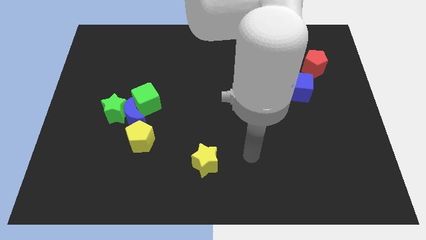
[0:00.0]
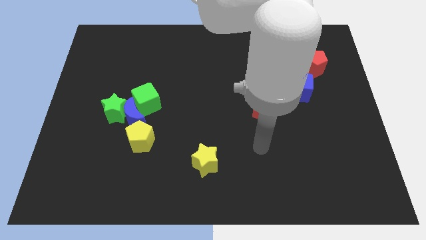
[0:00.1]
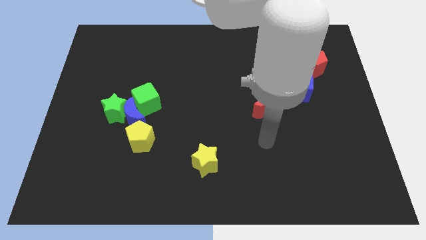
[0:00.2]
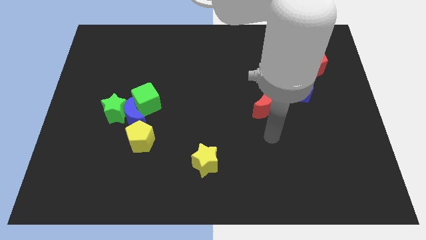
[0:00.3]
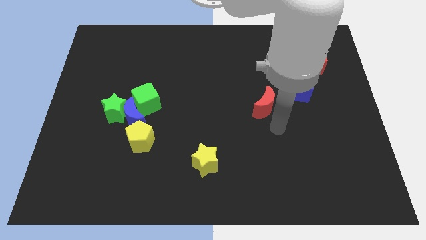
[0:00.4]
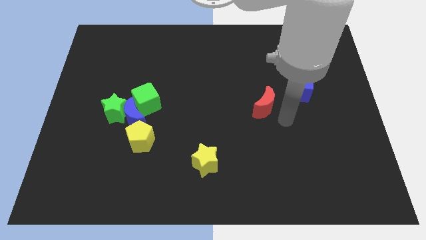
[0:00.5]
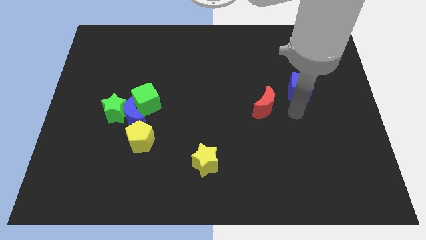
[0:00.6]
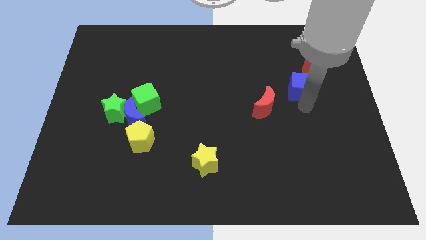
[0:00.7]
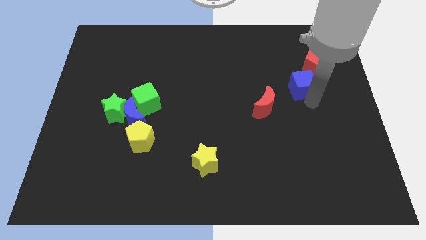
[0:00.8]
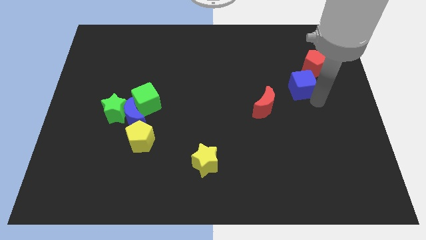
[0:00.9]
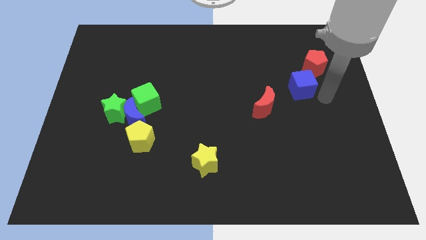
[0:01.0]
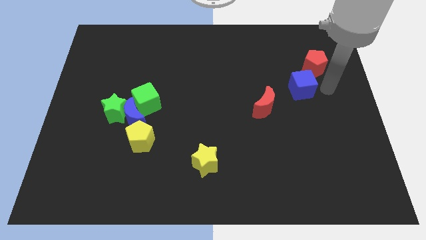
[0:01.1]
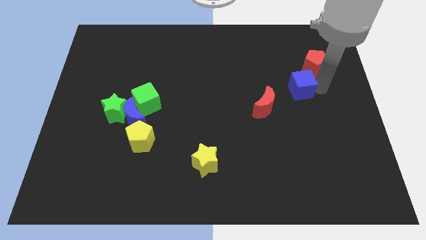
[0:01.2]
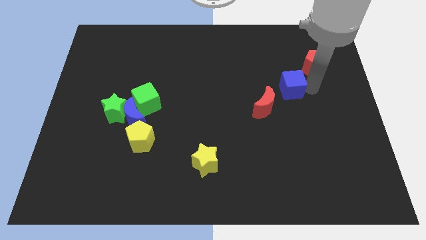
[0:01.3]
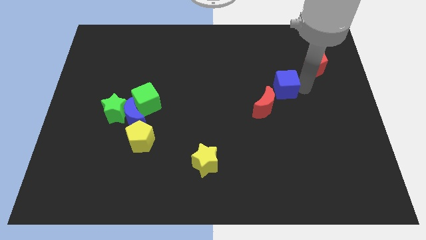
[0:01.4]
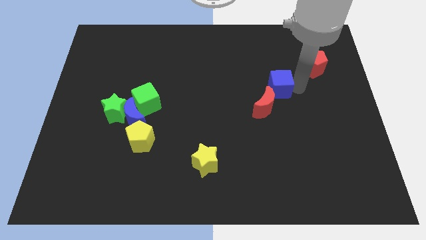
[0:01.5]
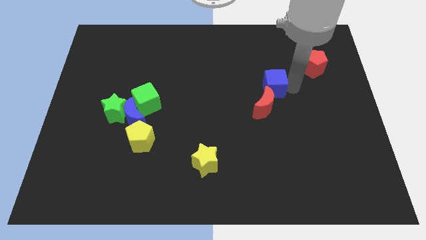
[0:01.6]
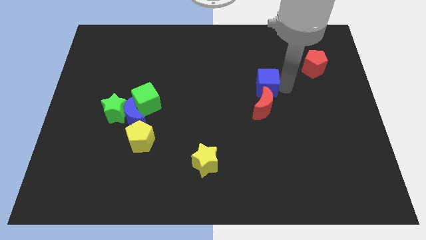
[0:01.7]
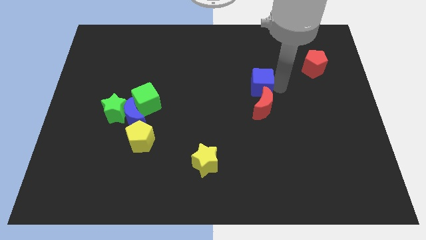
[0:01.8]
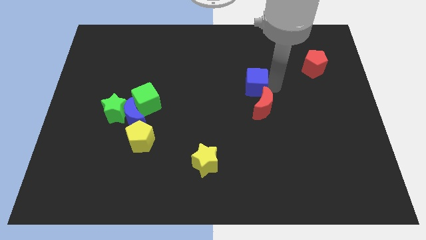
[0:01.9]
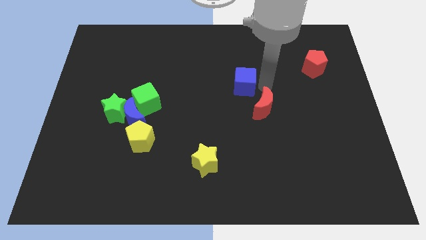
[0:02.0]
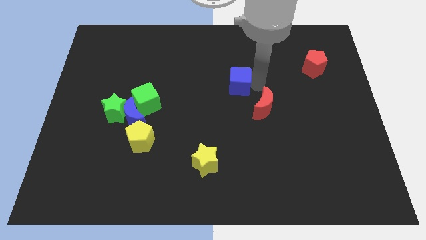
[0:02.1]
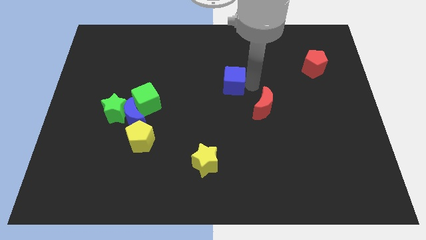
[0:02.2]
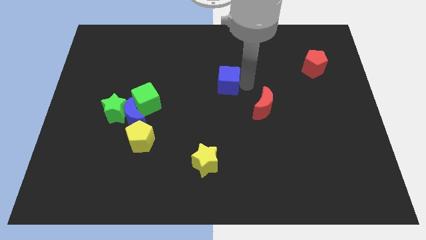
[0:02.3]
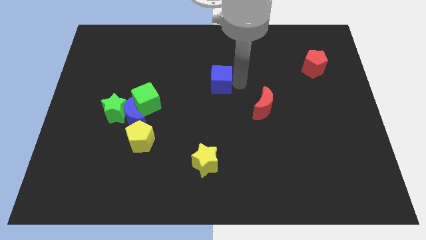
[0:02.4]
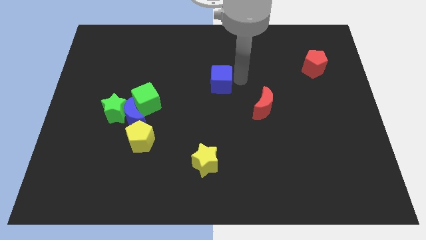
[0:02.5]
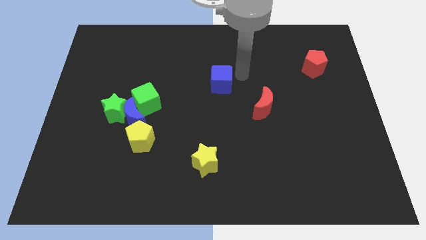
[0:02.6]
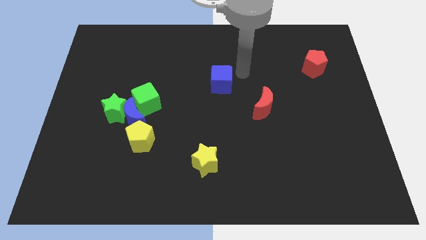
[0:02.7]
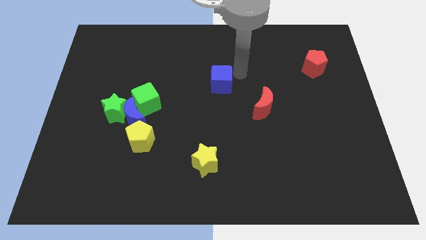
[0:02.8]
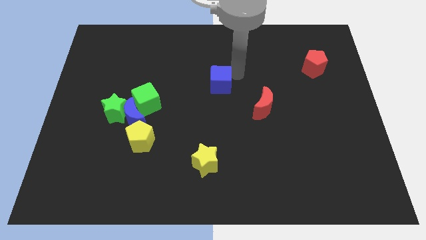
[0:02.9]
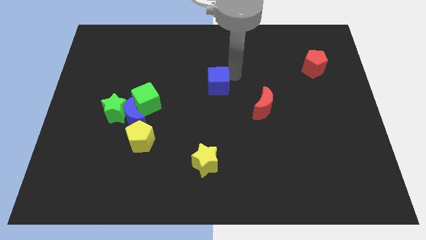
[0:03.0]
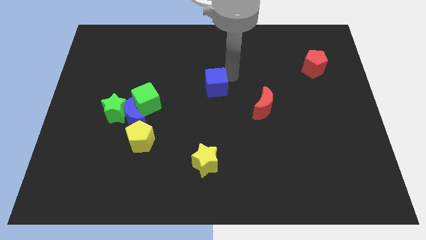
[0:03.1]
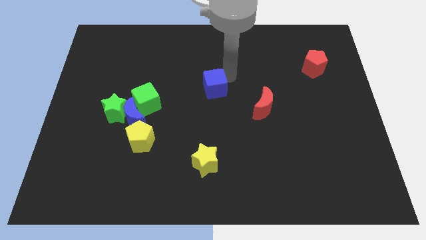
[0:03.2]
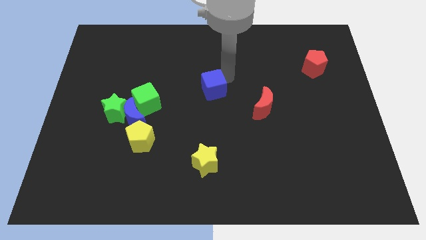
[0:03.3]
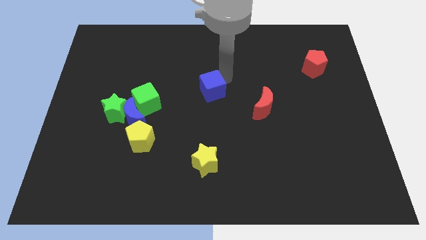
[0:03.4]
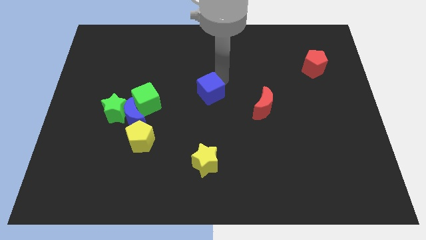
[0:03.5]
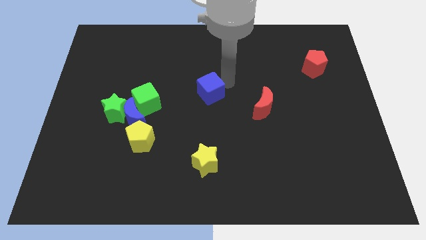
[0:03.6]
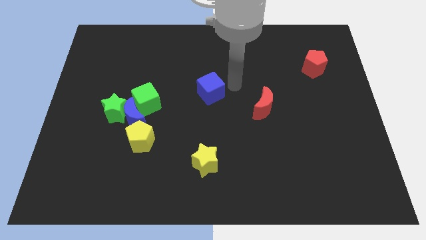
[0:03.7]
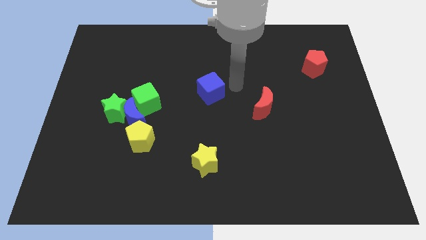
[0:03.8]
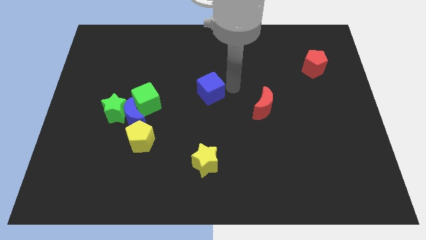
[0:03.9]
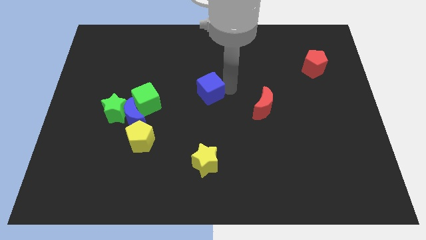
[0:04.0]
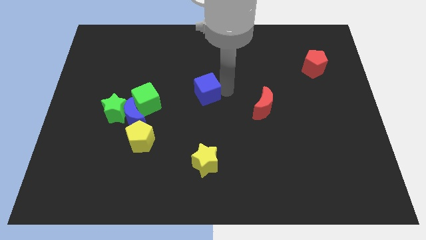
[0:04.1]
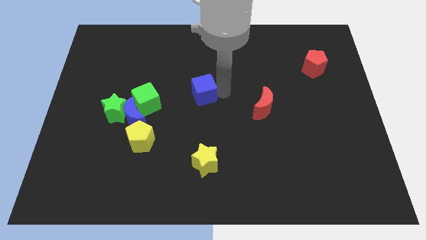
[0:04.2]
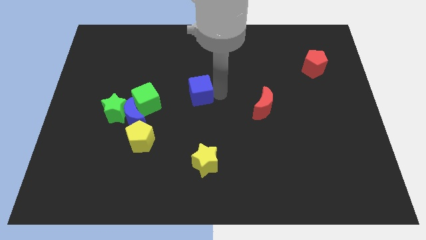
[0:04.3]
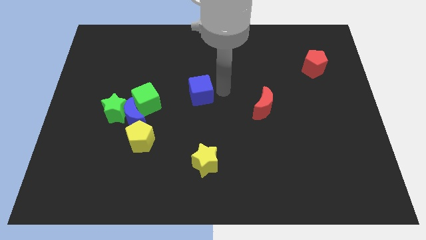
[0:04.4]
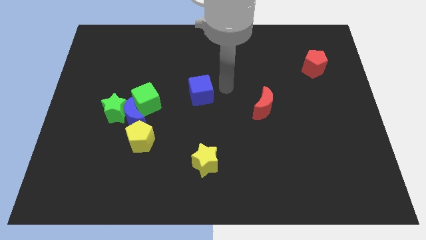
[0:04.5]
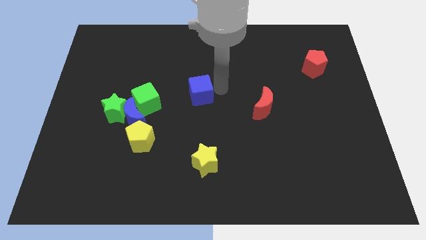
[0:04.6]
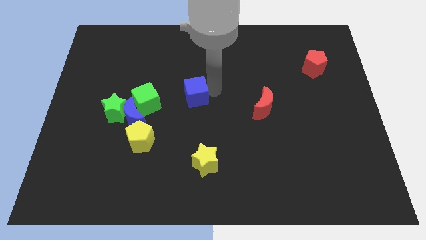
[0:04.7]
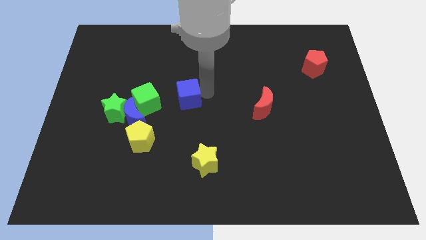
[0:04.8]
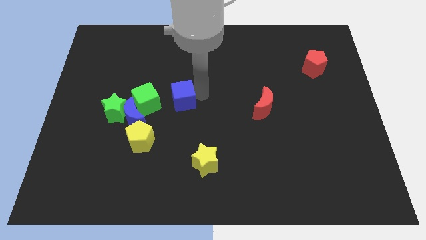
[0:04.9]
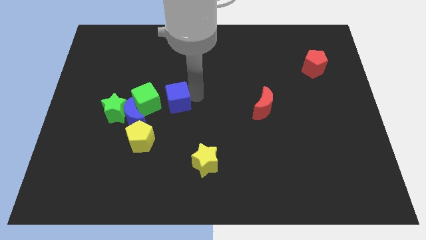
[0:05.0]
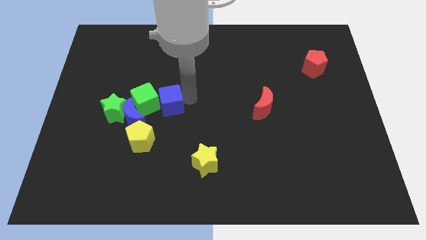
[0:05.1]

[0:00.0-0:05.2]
push the blue cube next to the green cube

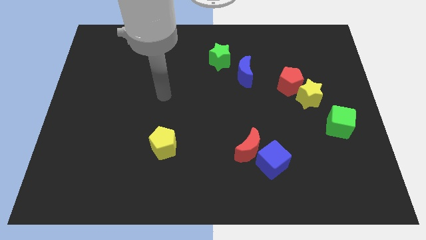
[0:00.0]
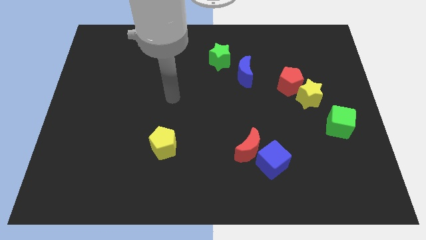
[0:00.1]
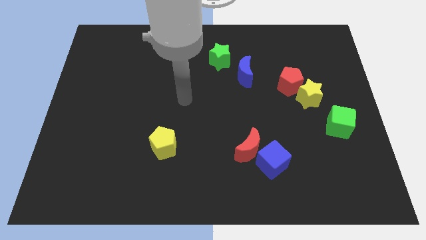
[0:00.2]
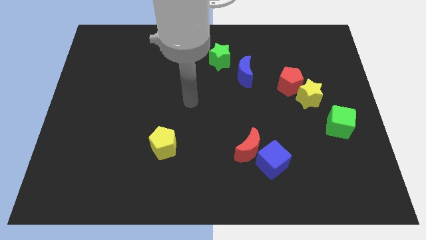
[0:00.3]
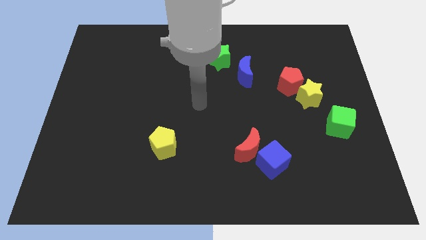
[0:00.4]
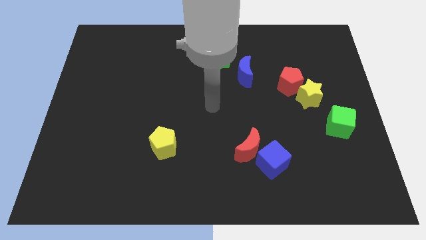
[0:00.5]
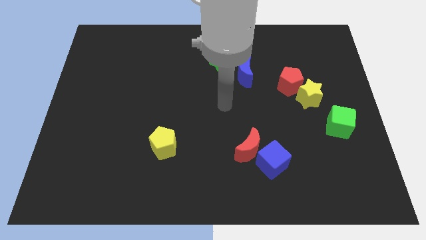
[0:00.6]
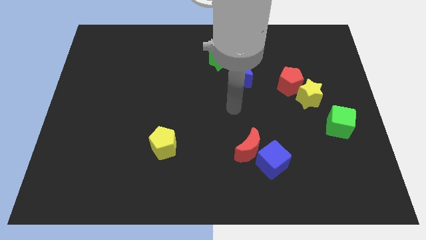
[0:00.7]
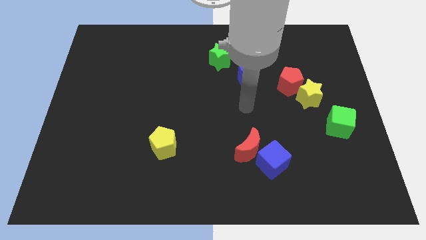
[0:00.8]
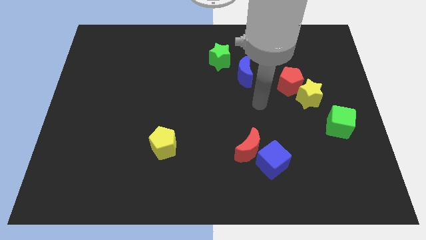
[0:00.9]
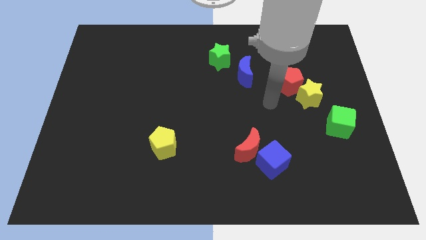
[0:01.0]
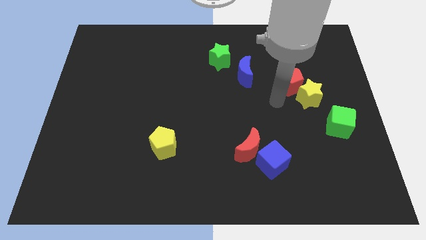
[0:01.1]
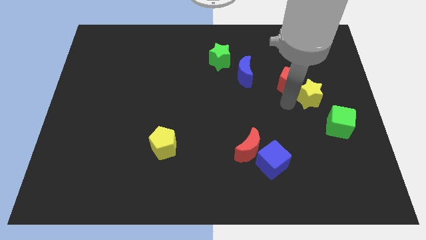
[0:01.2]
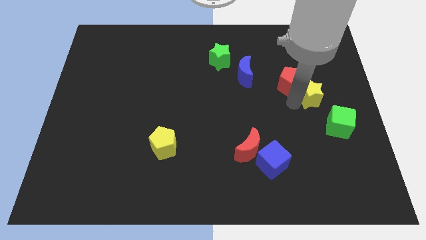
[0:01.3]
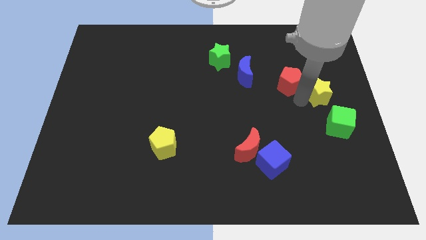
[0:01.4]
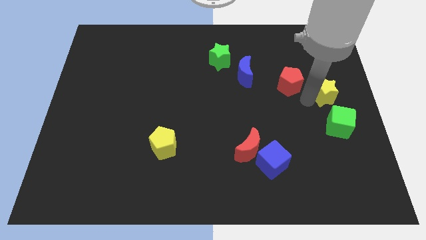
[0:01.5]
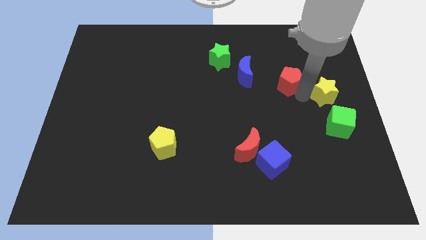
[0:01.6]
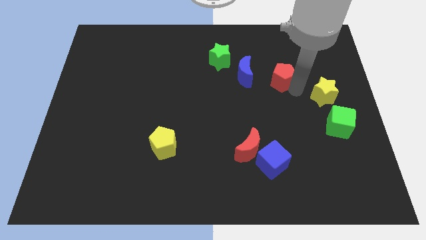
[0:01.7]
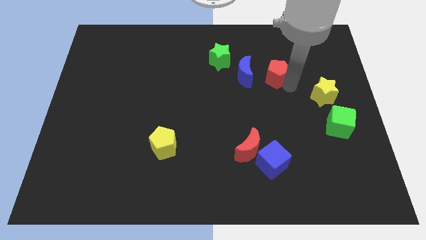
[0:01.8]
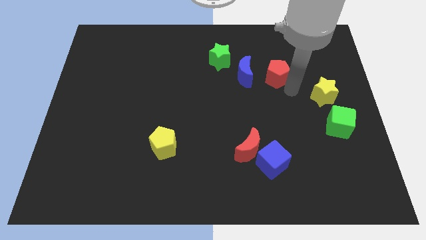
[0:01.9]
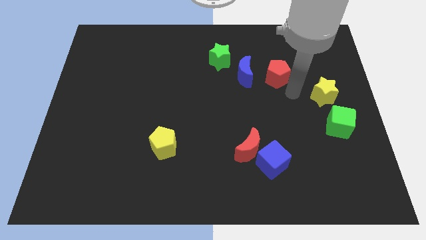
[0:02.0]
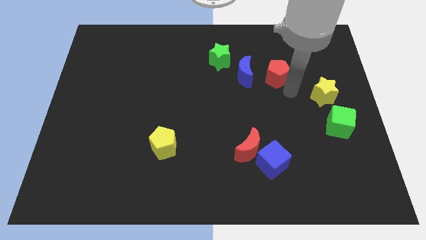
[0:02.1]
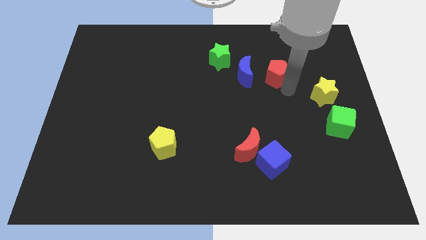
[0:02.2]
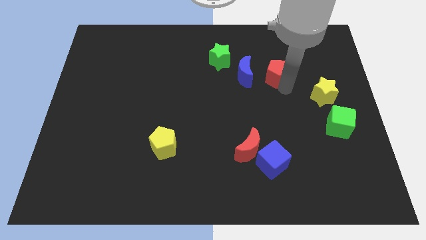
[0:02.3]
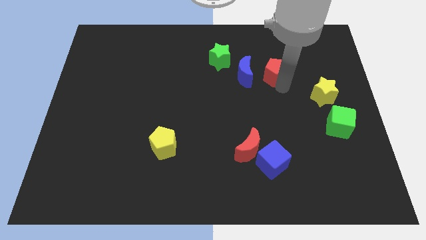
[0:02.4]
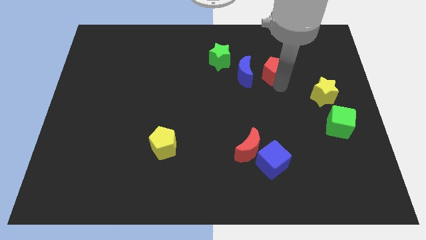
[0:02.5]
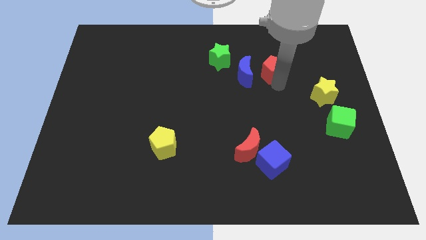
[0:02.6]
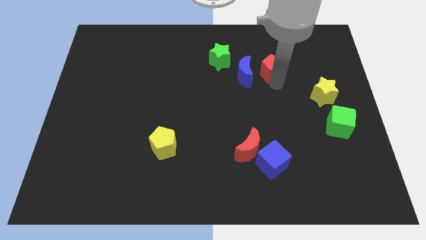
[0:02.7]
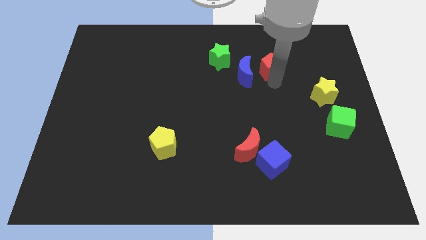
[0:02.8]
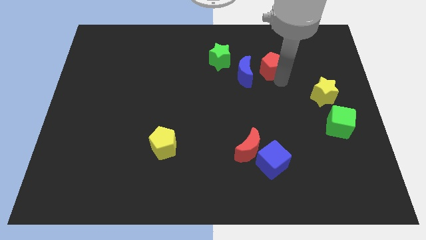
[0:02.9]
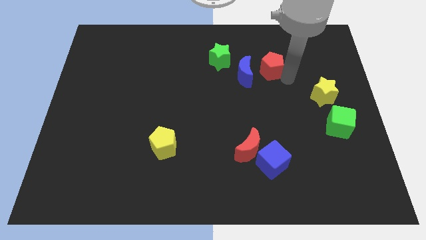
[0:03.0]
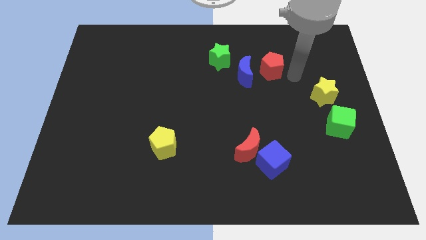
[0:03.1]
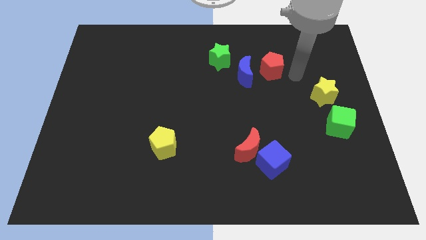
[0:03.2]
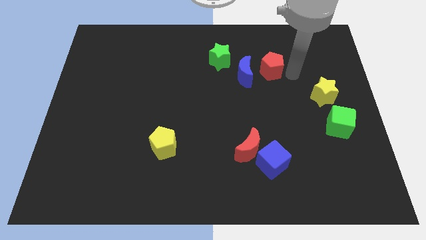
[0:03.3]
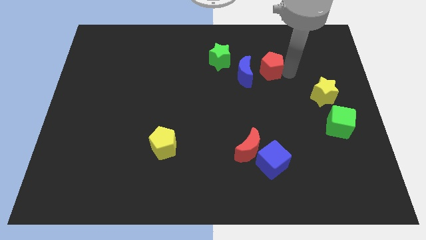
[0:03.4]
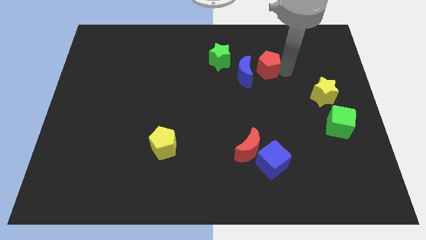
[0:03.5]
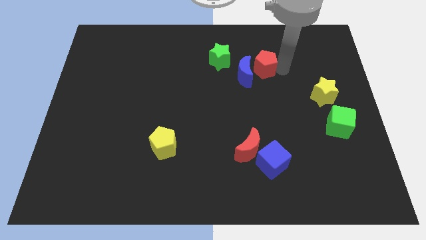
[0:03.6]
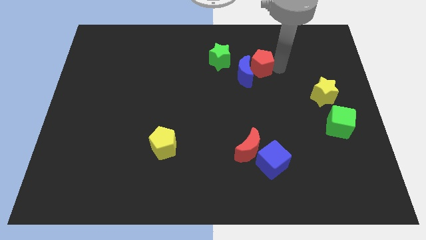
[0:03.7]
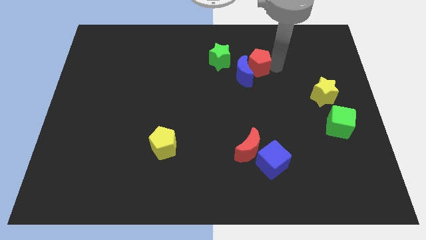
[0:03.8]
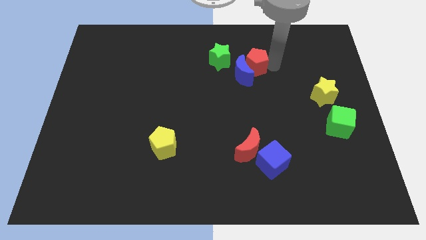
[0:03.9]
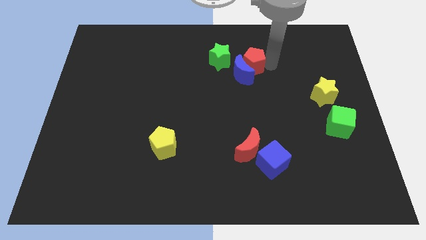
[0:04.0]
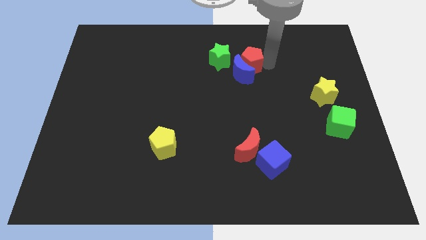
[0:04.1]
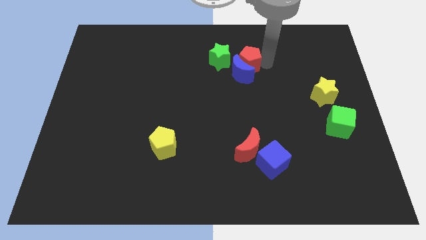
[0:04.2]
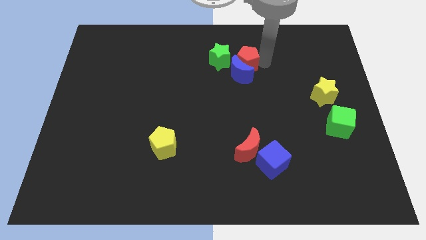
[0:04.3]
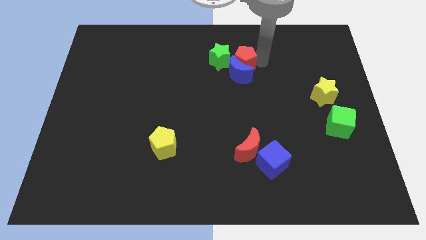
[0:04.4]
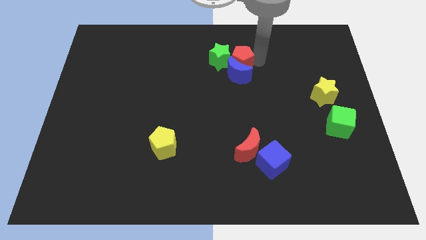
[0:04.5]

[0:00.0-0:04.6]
put the red pentagon close to the green star
